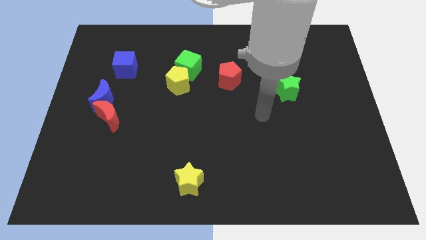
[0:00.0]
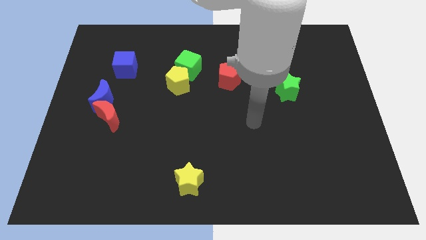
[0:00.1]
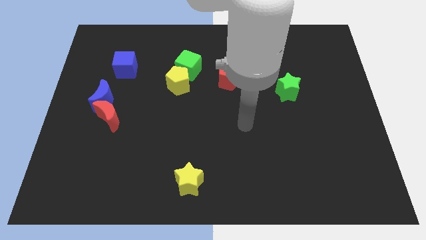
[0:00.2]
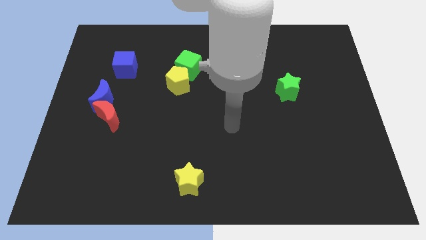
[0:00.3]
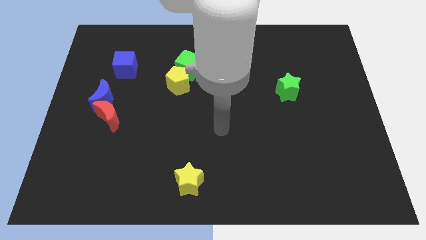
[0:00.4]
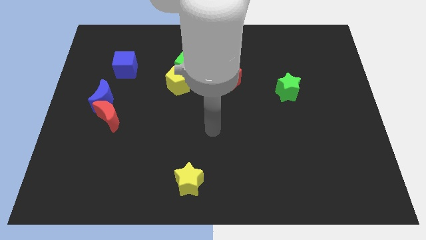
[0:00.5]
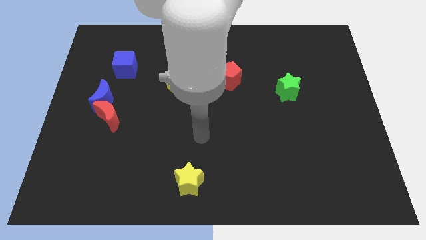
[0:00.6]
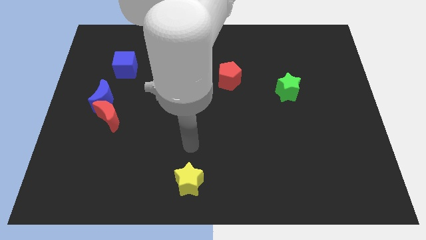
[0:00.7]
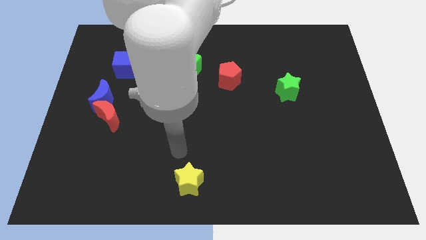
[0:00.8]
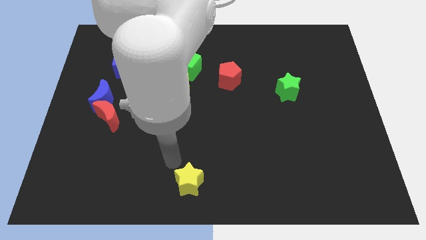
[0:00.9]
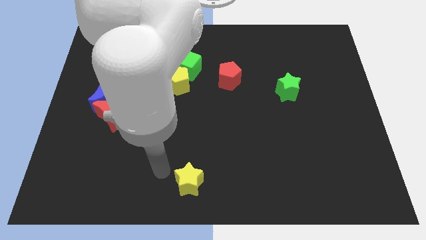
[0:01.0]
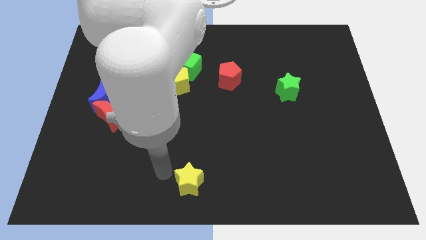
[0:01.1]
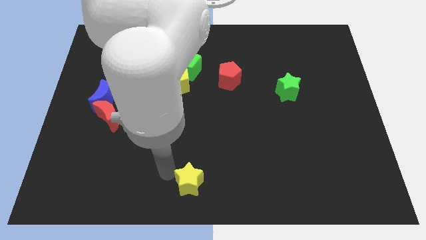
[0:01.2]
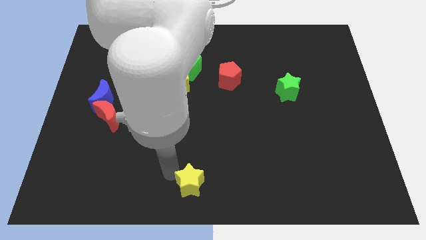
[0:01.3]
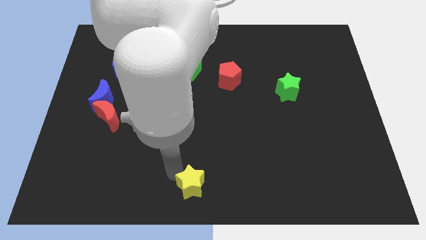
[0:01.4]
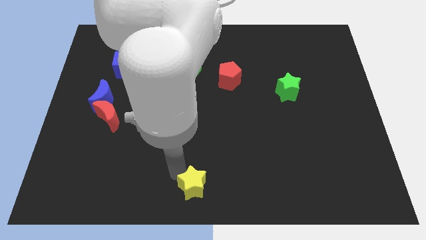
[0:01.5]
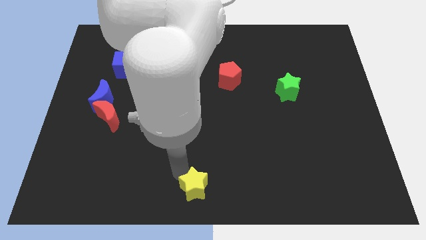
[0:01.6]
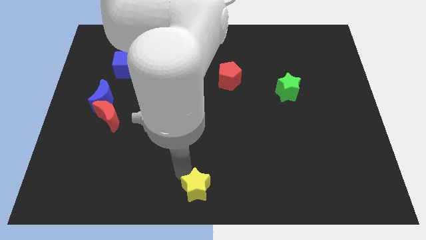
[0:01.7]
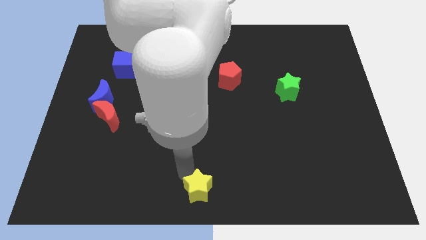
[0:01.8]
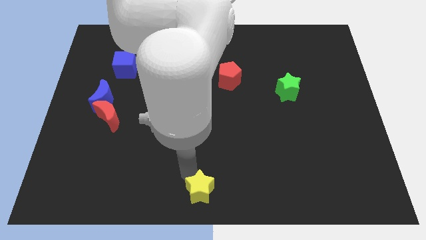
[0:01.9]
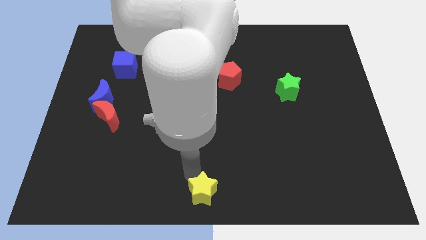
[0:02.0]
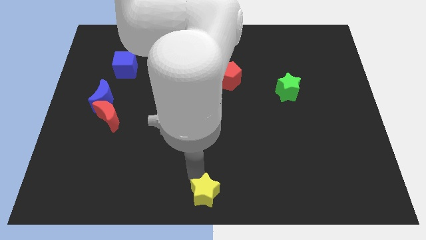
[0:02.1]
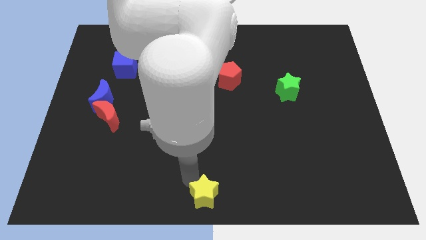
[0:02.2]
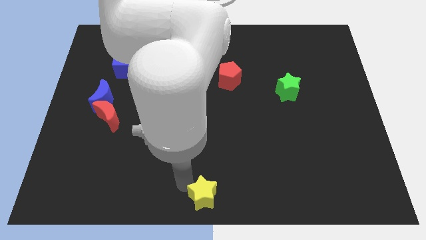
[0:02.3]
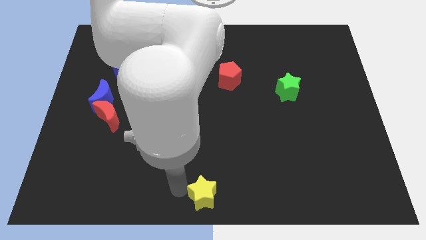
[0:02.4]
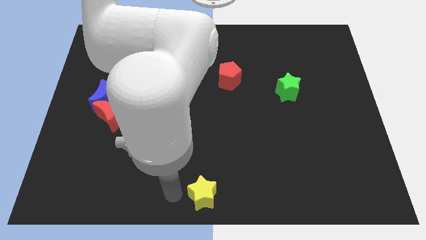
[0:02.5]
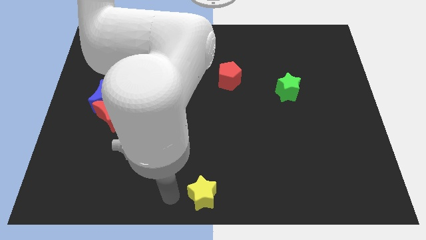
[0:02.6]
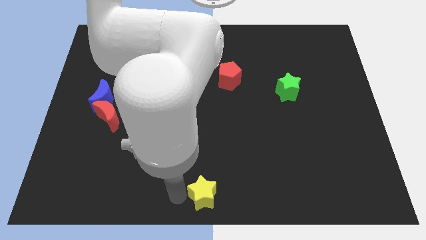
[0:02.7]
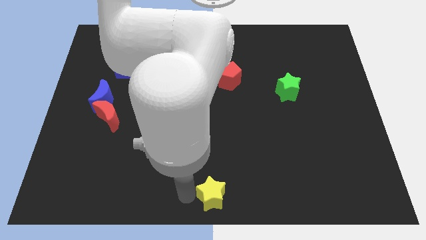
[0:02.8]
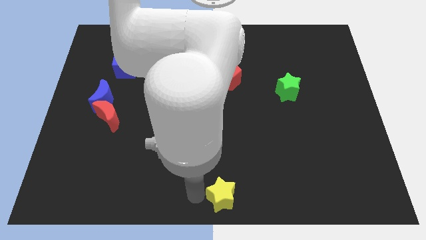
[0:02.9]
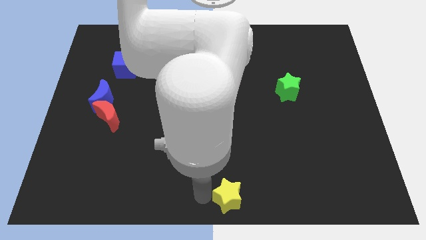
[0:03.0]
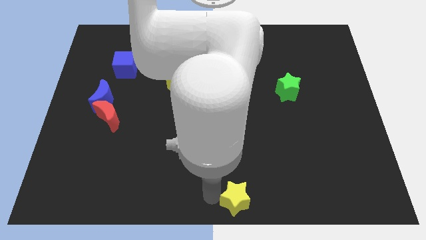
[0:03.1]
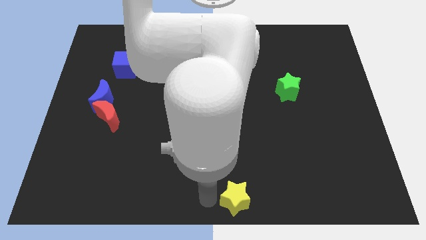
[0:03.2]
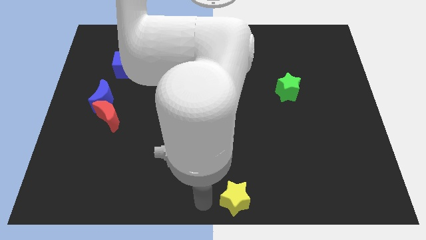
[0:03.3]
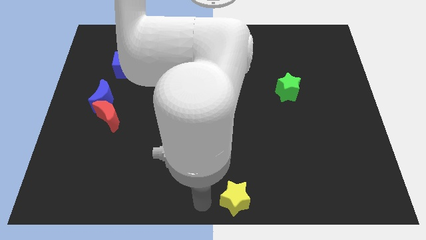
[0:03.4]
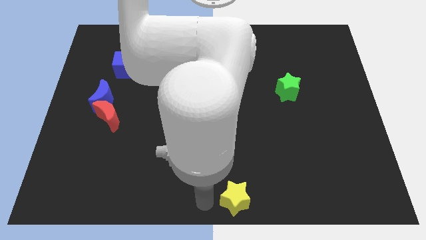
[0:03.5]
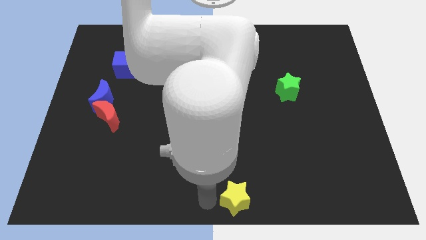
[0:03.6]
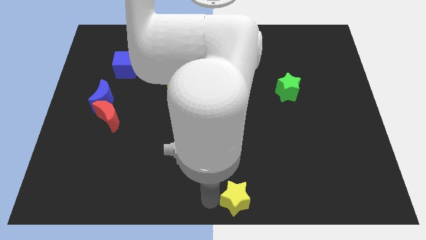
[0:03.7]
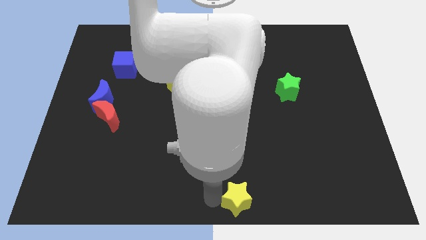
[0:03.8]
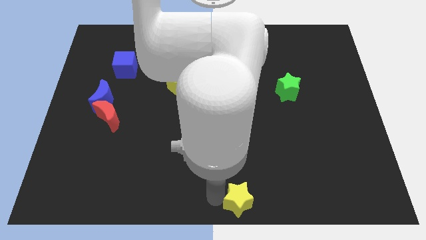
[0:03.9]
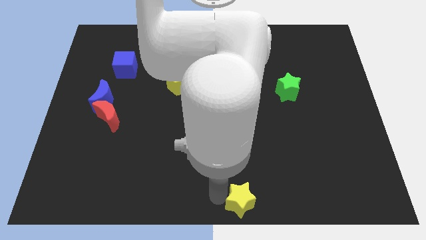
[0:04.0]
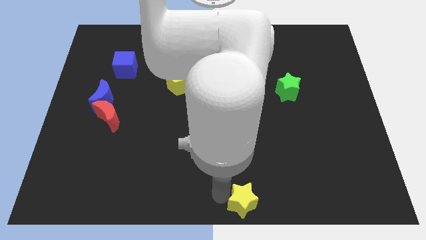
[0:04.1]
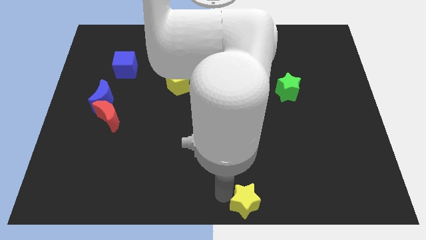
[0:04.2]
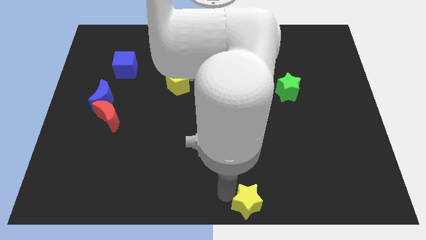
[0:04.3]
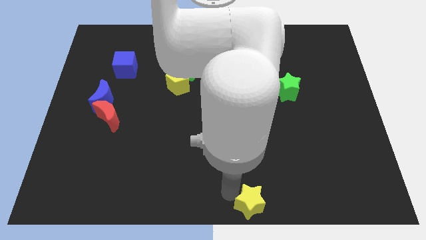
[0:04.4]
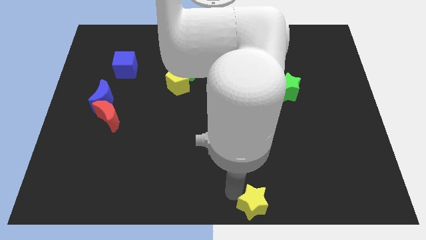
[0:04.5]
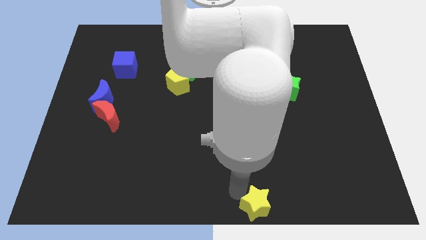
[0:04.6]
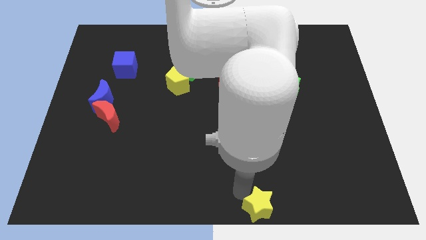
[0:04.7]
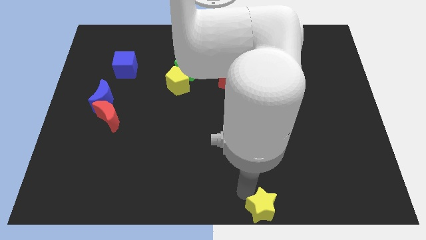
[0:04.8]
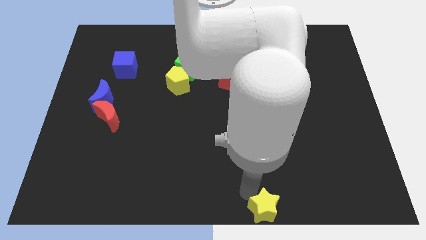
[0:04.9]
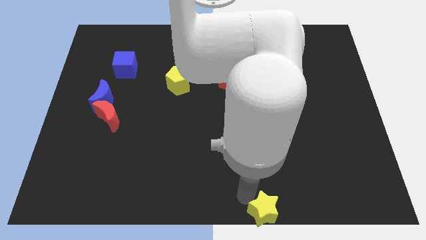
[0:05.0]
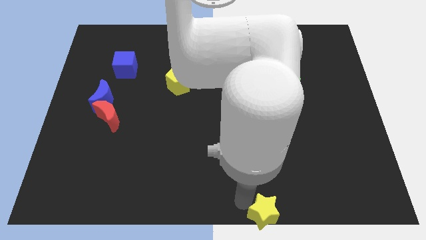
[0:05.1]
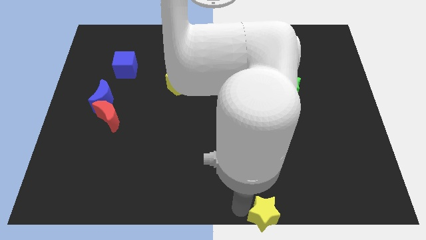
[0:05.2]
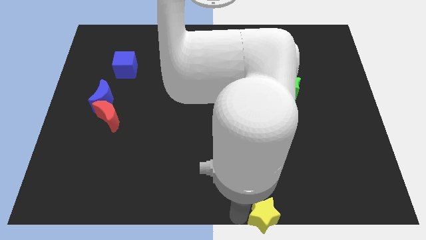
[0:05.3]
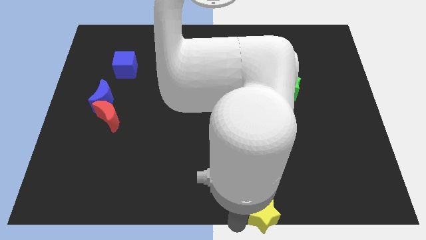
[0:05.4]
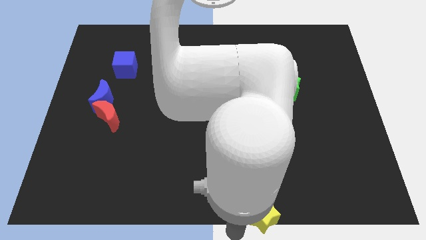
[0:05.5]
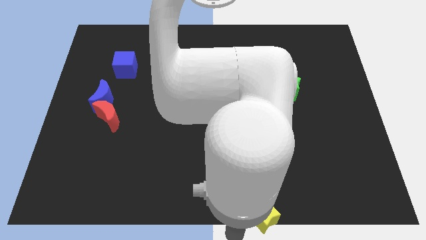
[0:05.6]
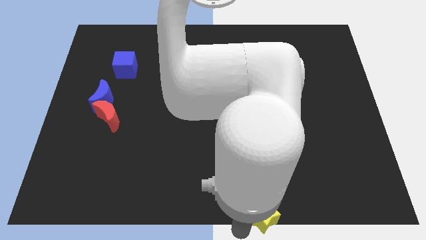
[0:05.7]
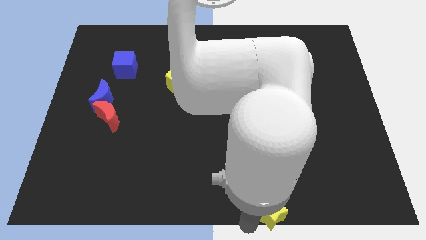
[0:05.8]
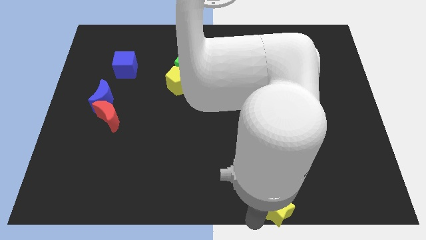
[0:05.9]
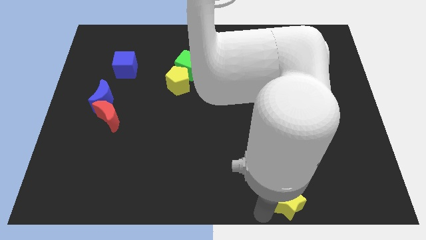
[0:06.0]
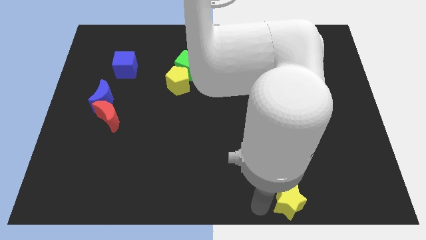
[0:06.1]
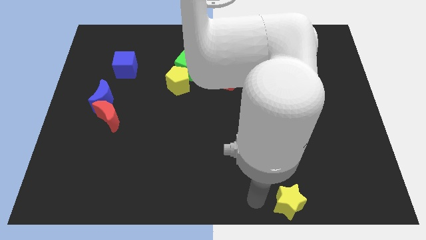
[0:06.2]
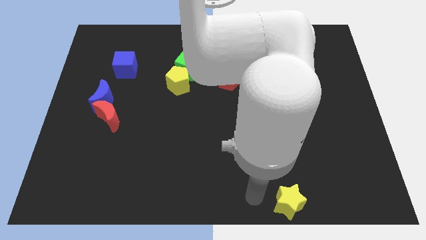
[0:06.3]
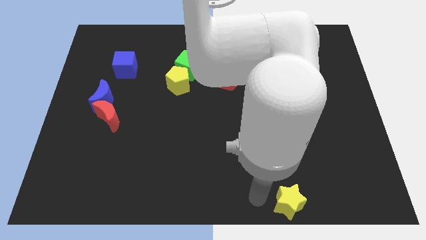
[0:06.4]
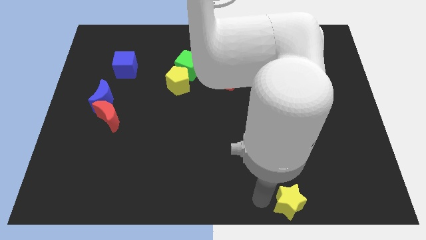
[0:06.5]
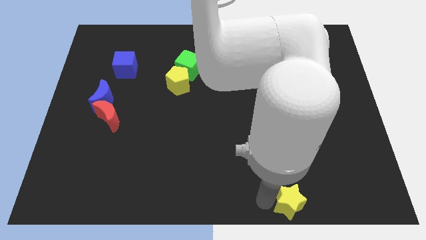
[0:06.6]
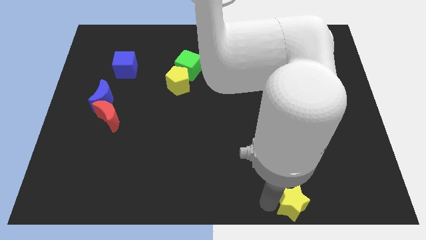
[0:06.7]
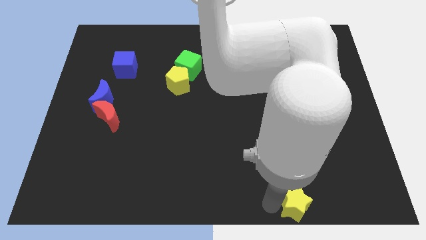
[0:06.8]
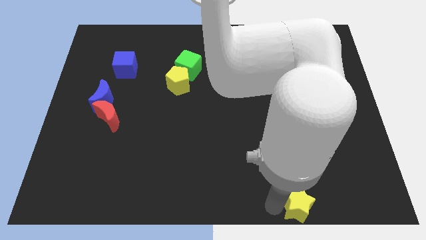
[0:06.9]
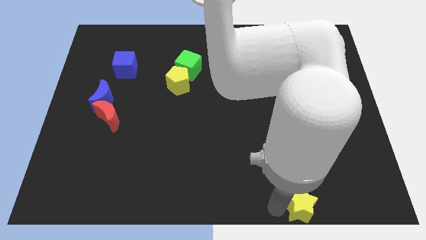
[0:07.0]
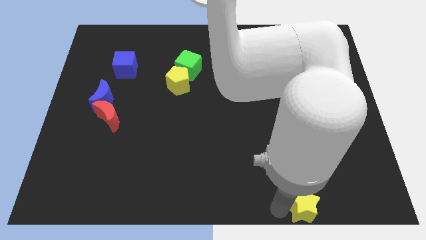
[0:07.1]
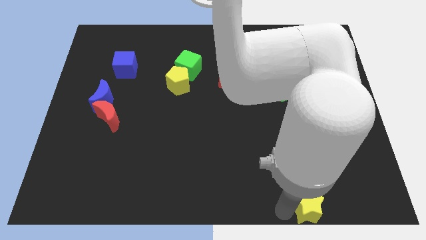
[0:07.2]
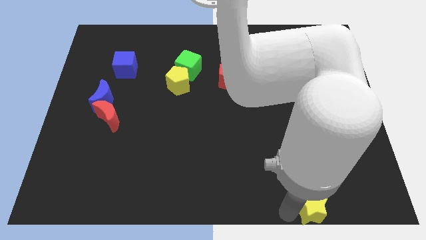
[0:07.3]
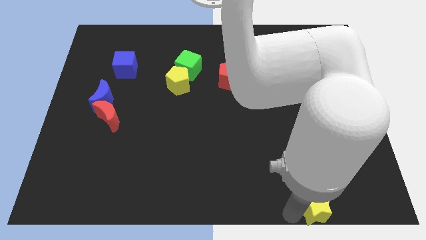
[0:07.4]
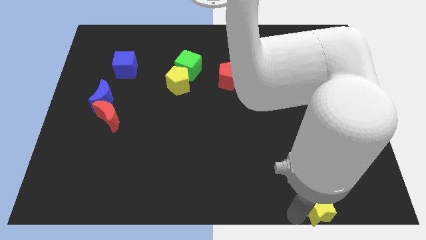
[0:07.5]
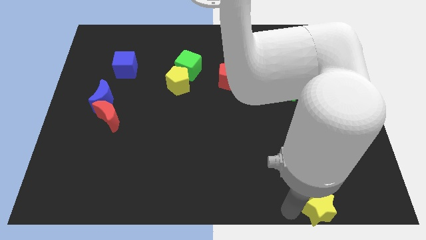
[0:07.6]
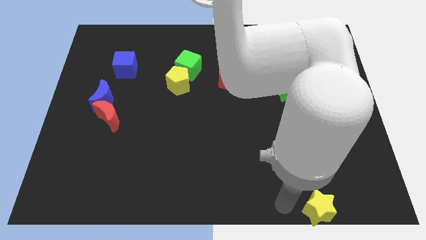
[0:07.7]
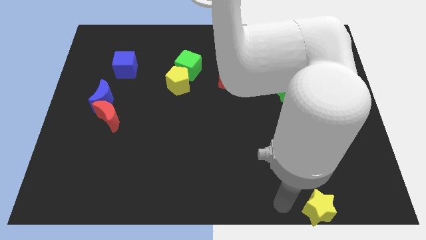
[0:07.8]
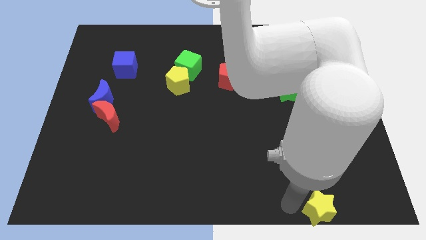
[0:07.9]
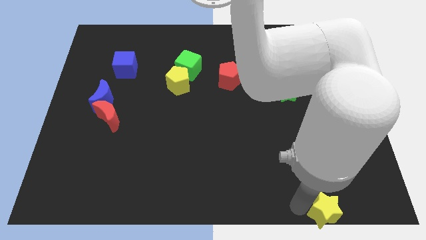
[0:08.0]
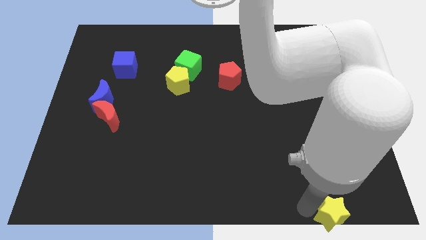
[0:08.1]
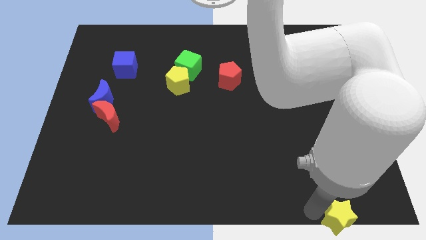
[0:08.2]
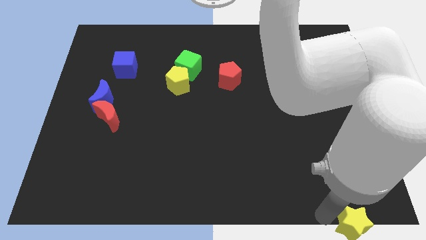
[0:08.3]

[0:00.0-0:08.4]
move the yellow star to the bottom right
